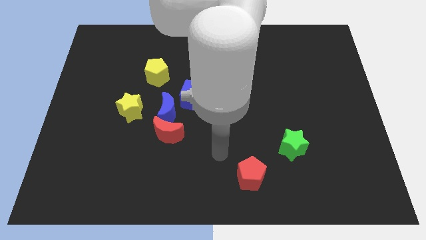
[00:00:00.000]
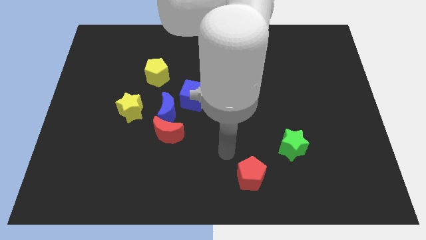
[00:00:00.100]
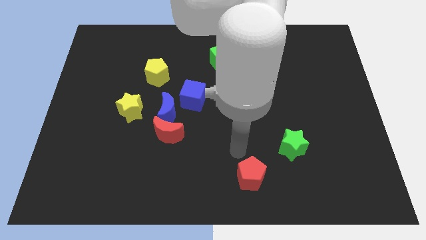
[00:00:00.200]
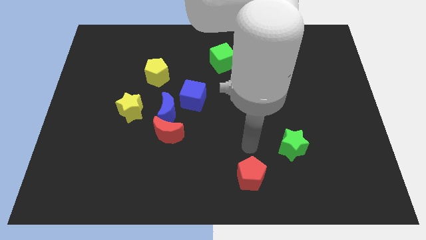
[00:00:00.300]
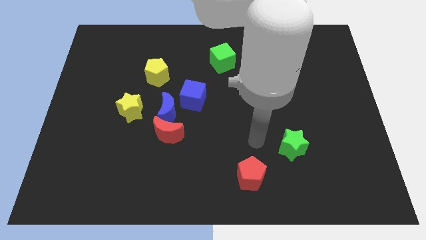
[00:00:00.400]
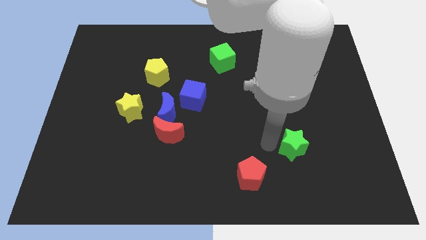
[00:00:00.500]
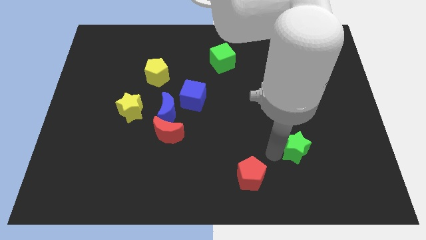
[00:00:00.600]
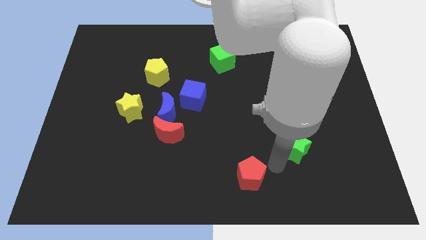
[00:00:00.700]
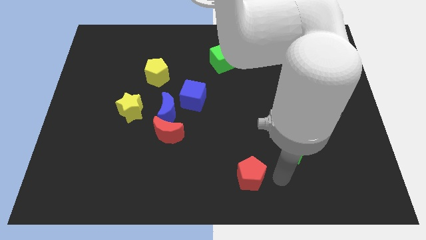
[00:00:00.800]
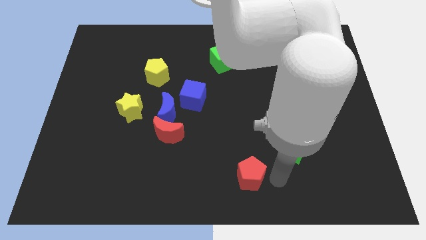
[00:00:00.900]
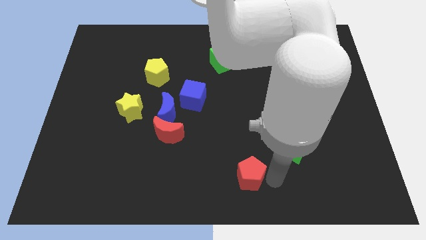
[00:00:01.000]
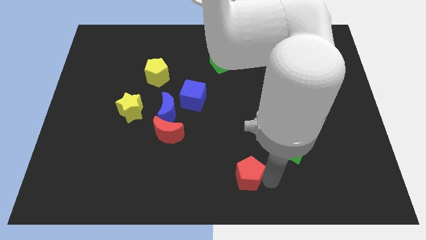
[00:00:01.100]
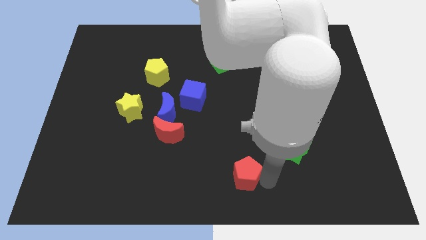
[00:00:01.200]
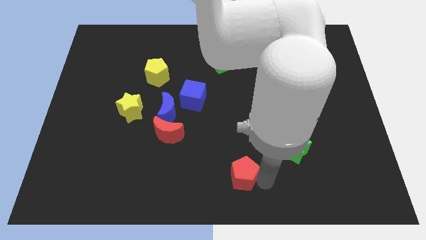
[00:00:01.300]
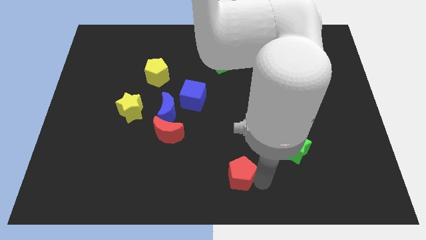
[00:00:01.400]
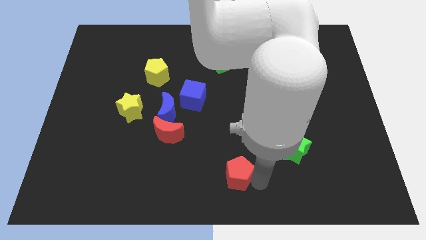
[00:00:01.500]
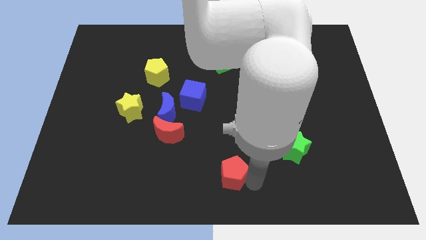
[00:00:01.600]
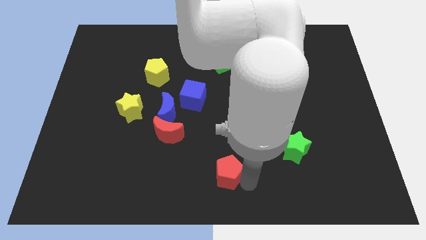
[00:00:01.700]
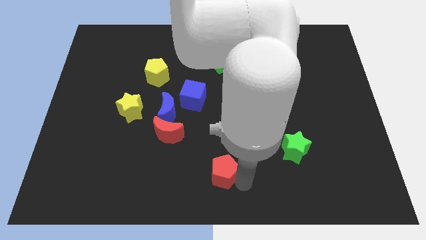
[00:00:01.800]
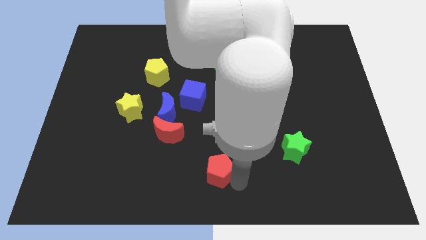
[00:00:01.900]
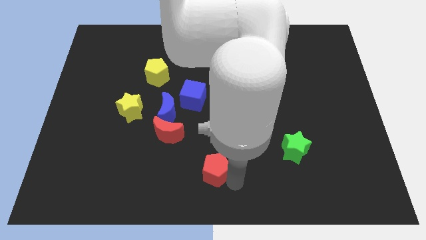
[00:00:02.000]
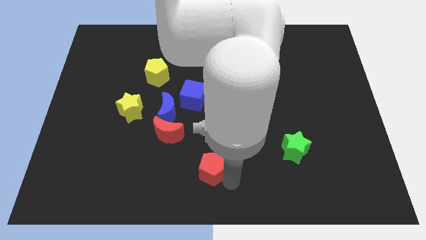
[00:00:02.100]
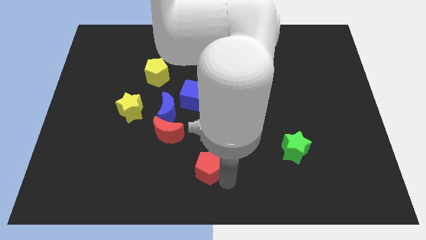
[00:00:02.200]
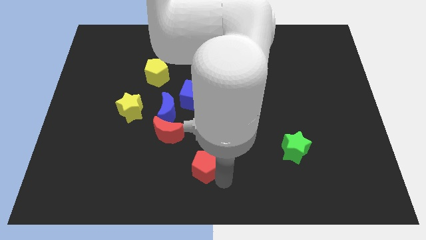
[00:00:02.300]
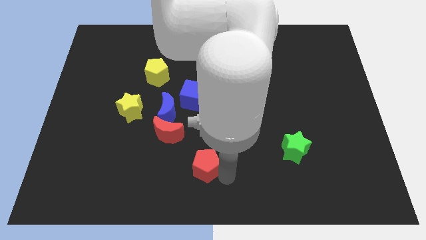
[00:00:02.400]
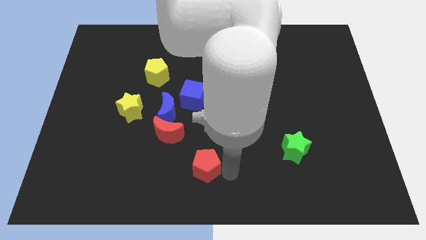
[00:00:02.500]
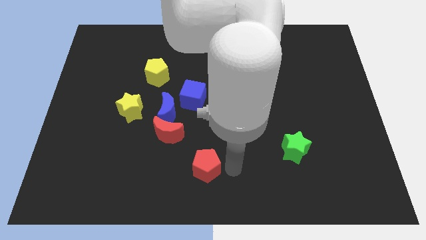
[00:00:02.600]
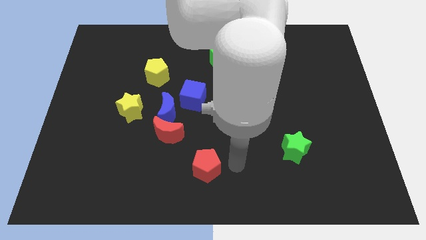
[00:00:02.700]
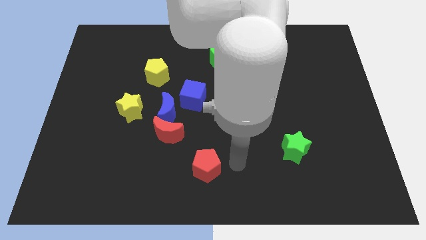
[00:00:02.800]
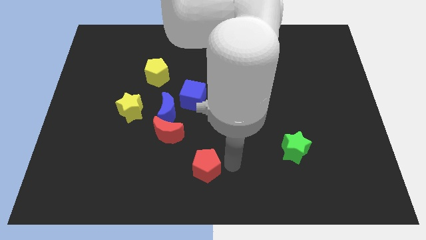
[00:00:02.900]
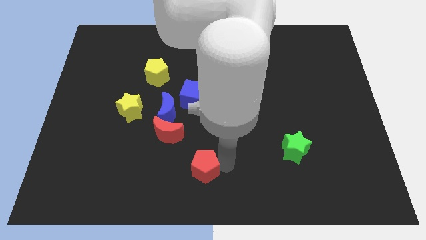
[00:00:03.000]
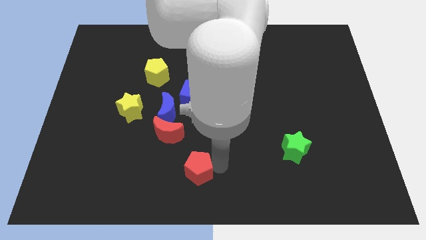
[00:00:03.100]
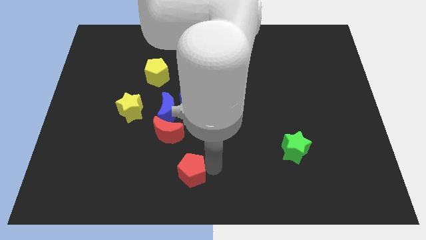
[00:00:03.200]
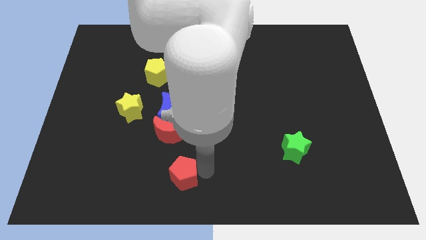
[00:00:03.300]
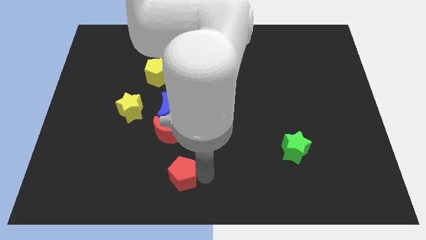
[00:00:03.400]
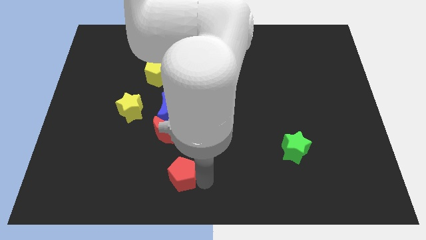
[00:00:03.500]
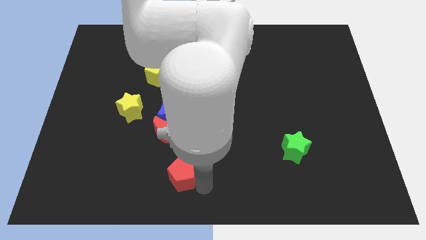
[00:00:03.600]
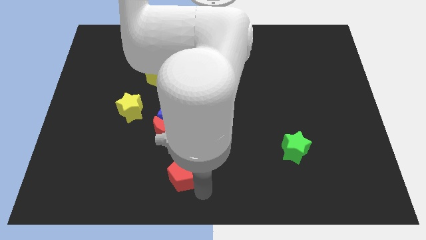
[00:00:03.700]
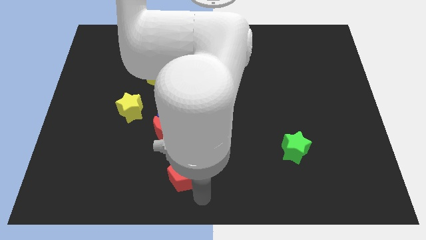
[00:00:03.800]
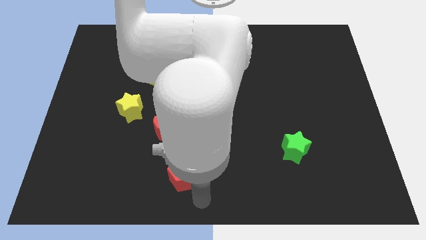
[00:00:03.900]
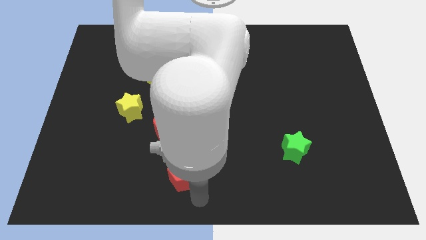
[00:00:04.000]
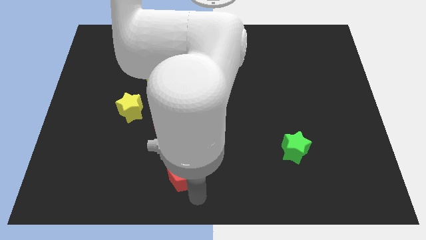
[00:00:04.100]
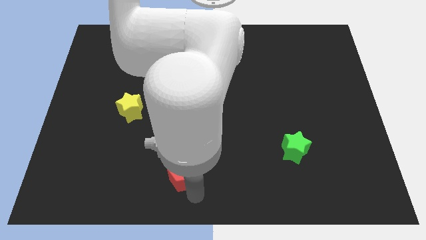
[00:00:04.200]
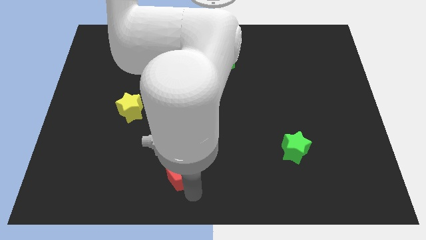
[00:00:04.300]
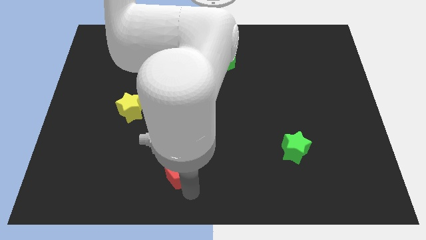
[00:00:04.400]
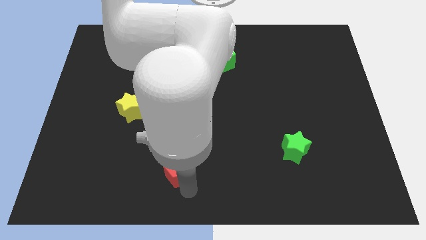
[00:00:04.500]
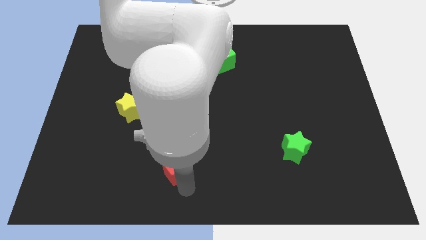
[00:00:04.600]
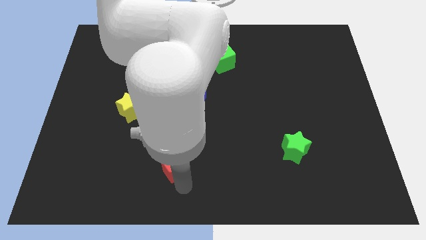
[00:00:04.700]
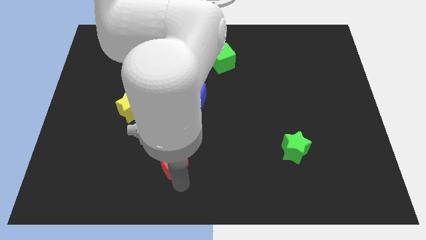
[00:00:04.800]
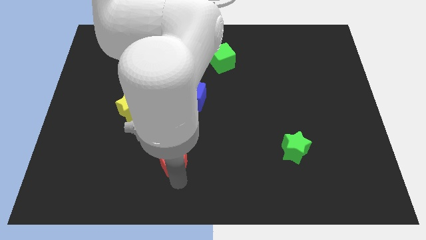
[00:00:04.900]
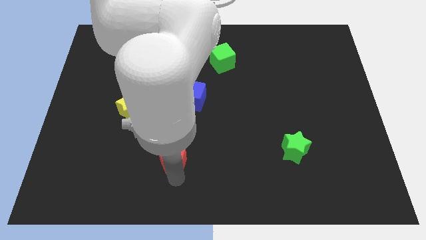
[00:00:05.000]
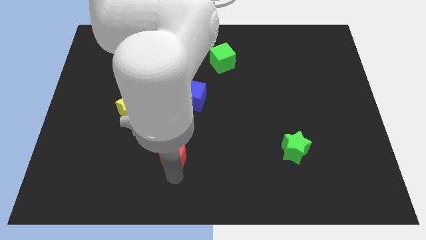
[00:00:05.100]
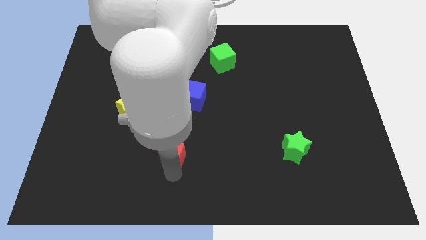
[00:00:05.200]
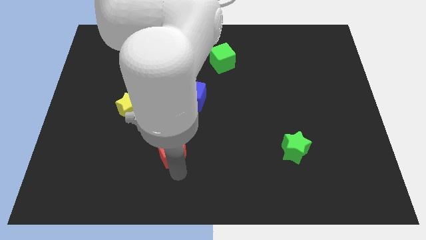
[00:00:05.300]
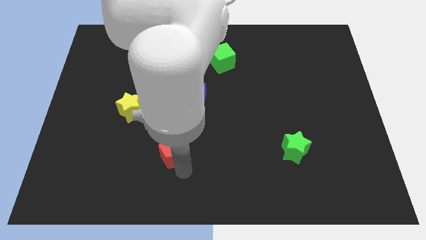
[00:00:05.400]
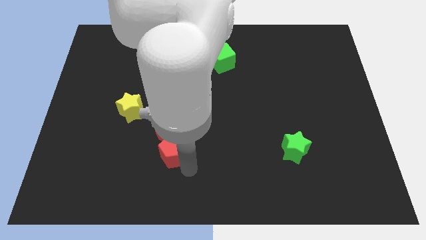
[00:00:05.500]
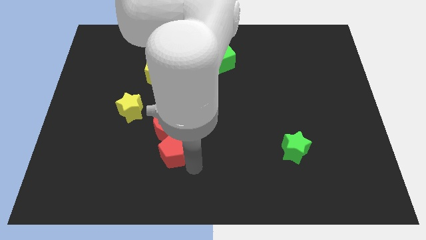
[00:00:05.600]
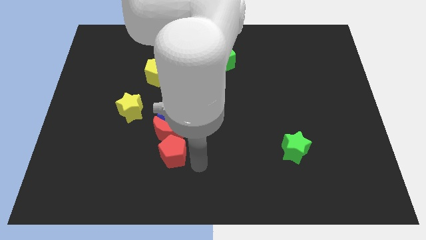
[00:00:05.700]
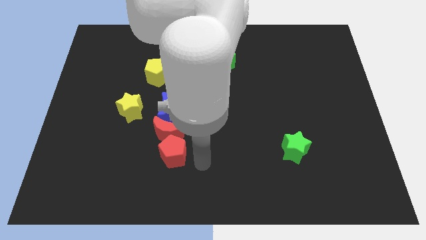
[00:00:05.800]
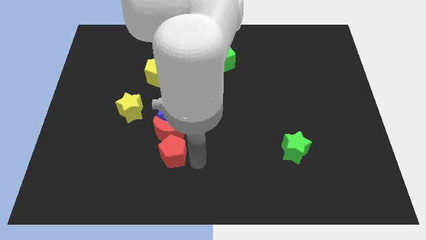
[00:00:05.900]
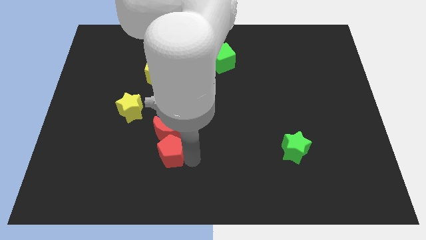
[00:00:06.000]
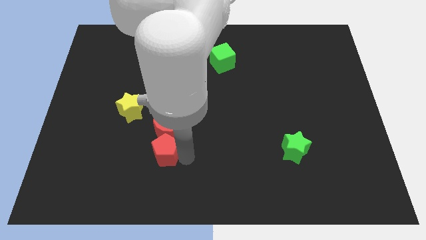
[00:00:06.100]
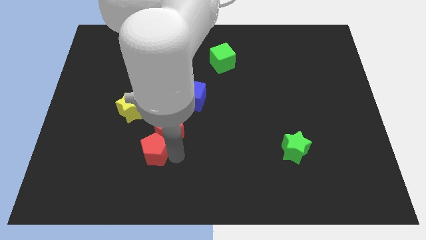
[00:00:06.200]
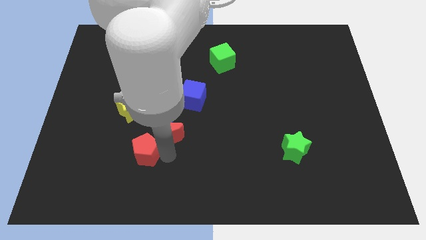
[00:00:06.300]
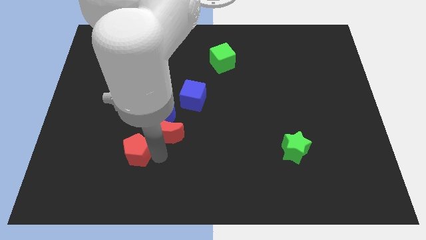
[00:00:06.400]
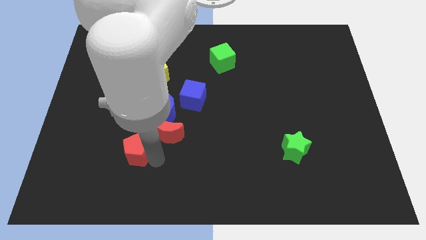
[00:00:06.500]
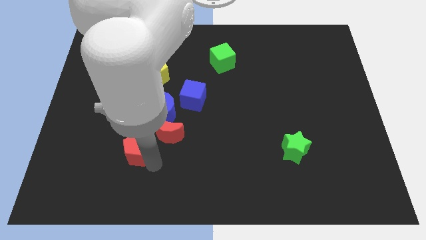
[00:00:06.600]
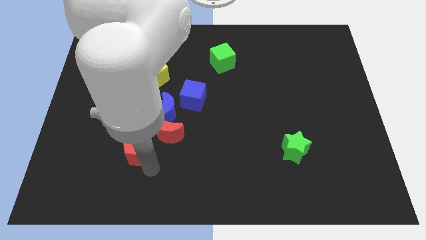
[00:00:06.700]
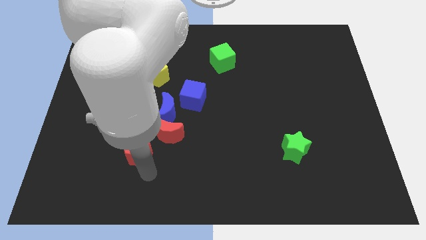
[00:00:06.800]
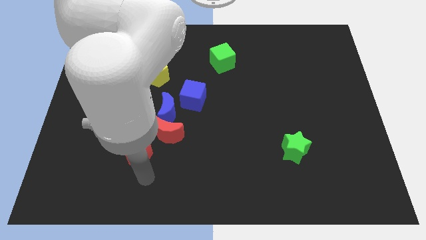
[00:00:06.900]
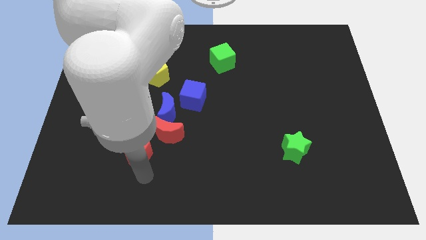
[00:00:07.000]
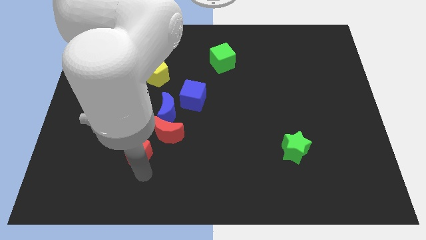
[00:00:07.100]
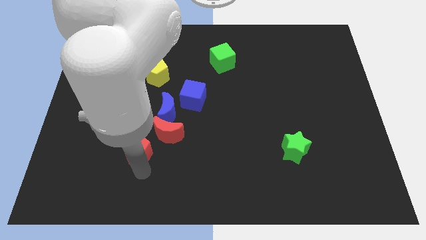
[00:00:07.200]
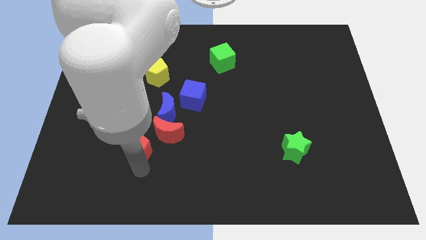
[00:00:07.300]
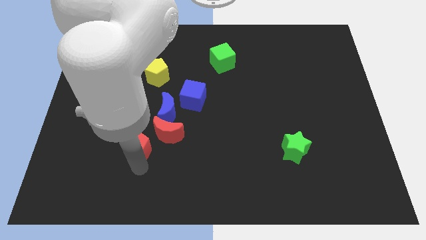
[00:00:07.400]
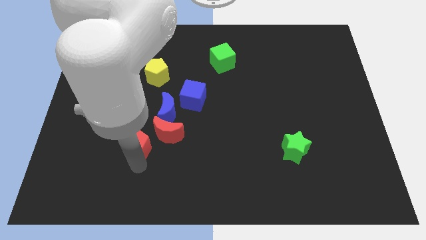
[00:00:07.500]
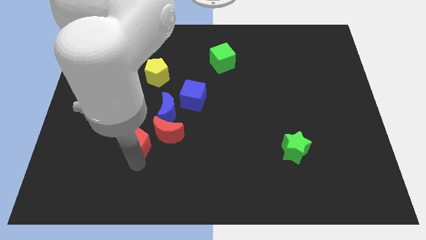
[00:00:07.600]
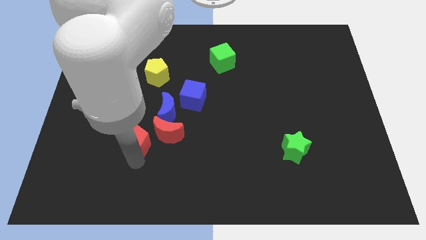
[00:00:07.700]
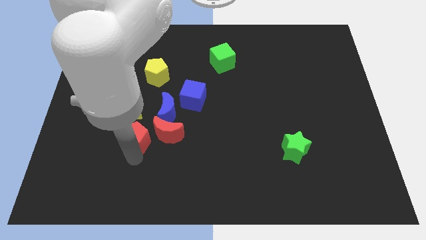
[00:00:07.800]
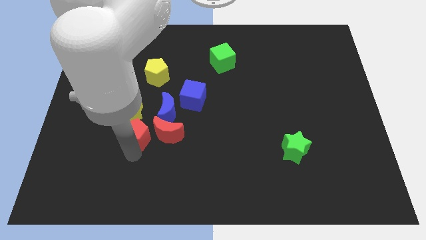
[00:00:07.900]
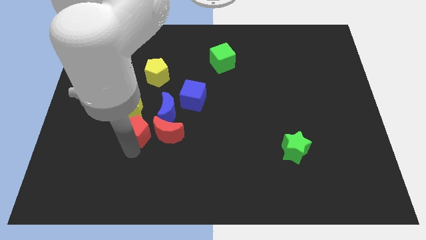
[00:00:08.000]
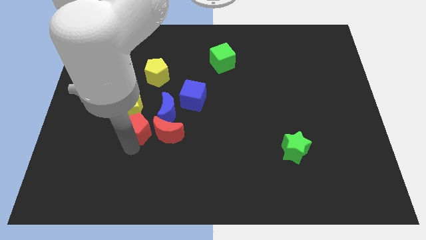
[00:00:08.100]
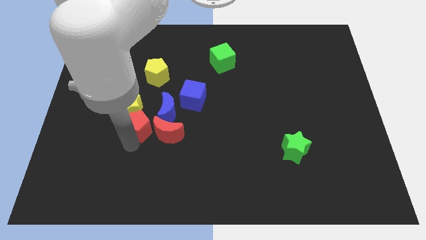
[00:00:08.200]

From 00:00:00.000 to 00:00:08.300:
move the red pentagon next to the yellow star
